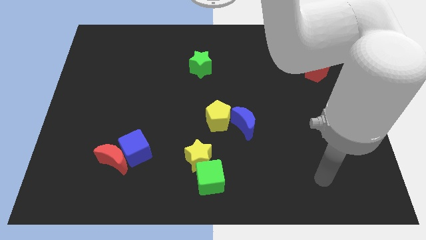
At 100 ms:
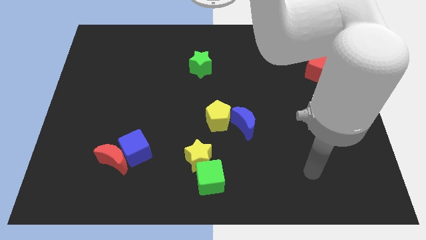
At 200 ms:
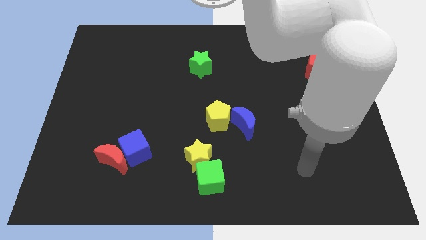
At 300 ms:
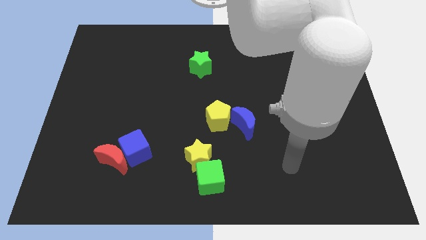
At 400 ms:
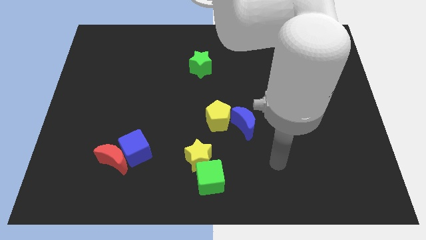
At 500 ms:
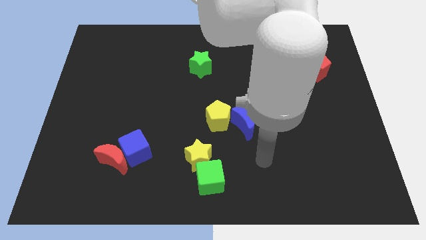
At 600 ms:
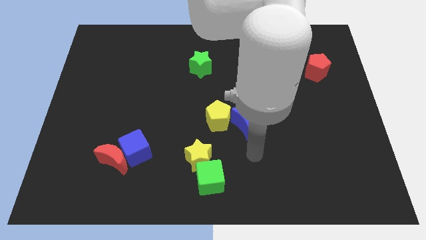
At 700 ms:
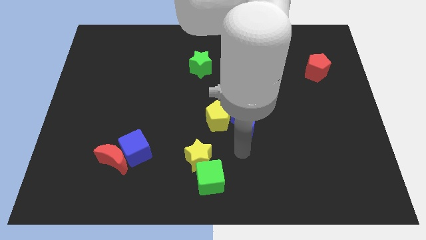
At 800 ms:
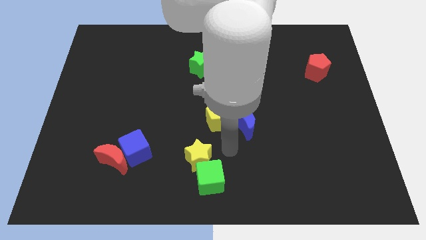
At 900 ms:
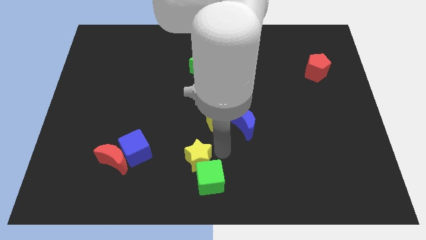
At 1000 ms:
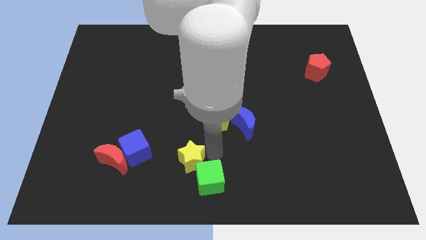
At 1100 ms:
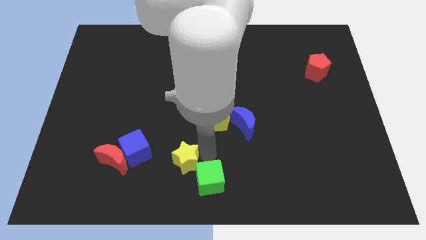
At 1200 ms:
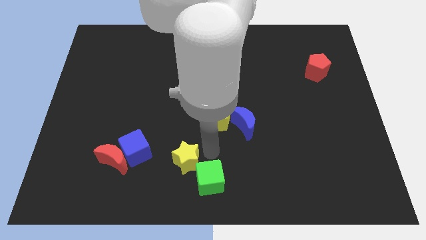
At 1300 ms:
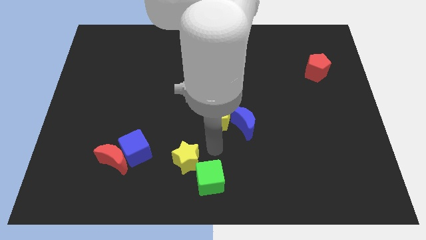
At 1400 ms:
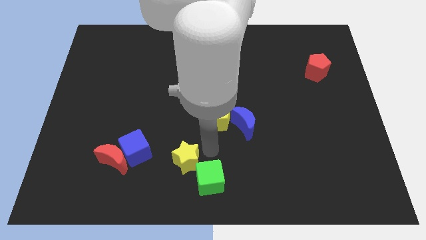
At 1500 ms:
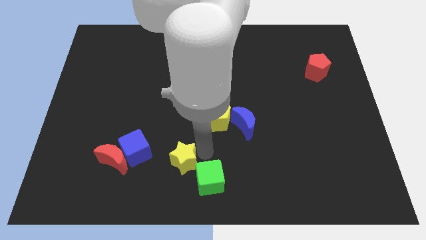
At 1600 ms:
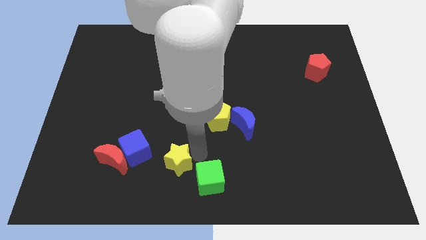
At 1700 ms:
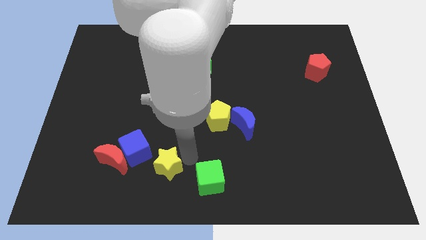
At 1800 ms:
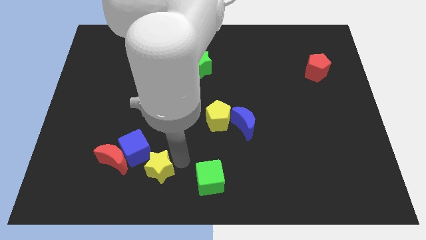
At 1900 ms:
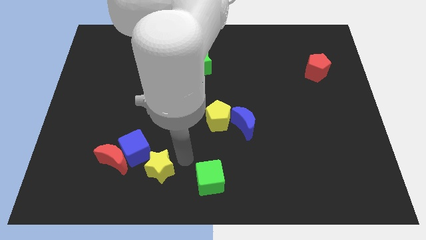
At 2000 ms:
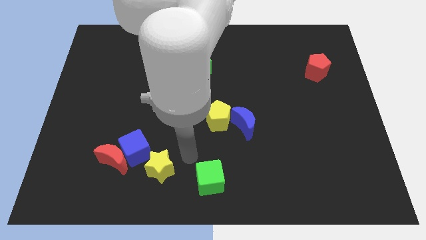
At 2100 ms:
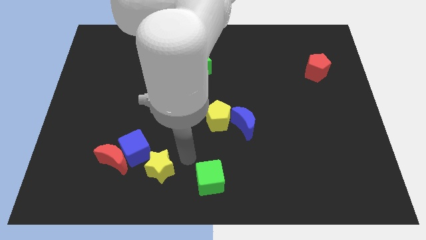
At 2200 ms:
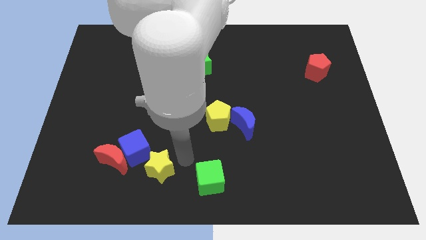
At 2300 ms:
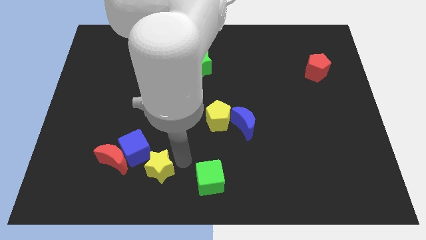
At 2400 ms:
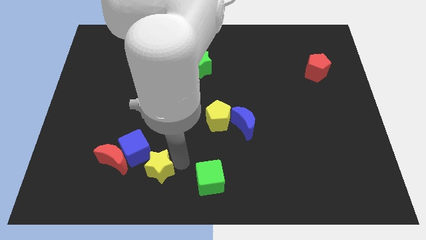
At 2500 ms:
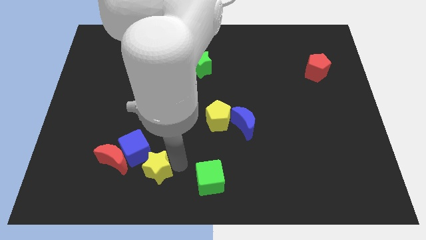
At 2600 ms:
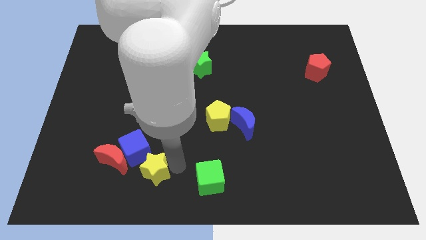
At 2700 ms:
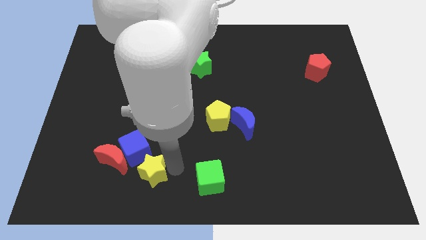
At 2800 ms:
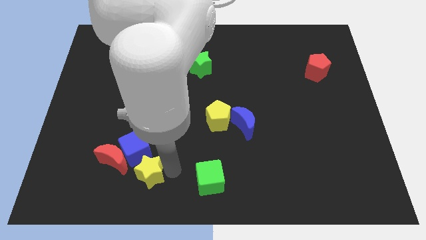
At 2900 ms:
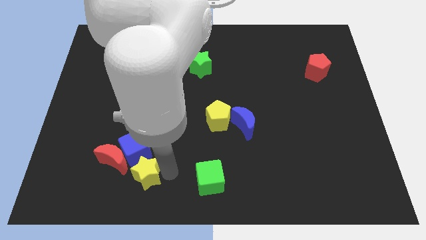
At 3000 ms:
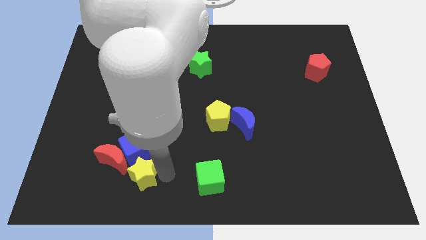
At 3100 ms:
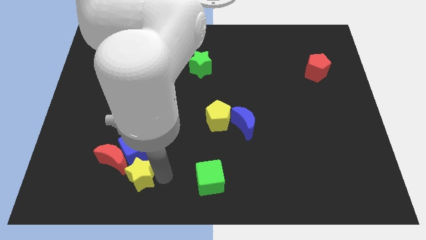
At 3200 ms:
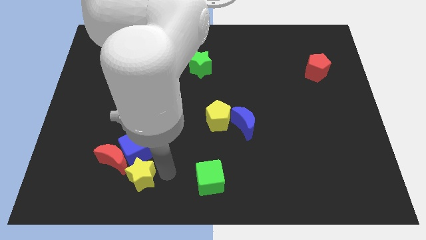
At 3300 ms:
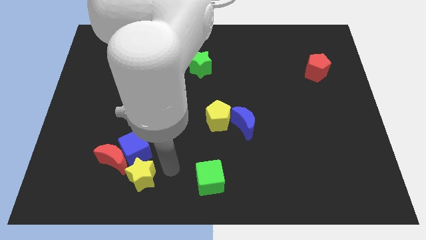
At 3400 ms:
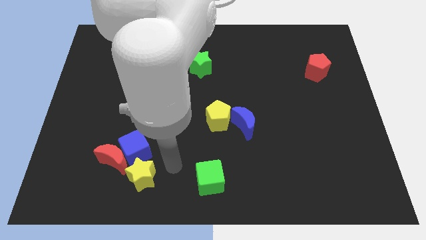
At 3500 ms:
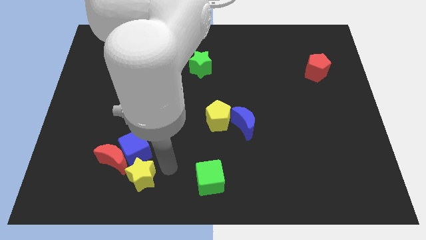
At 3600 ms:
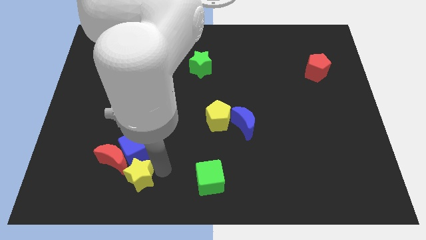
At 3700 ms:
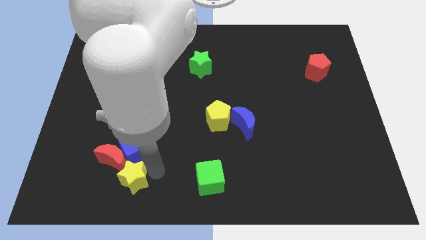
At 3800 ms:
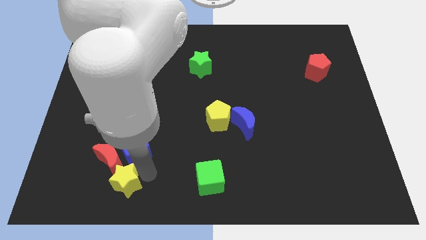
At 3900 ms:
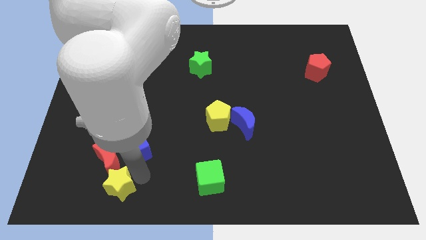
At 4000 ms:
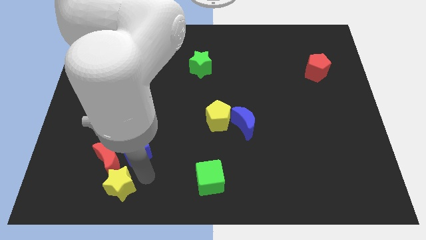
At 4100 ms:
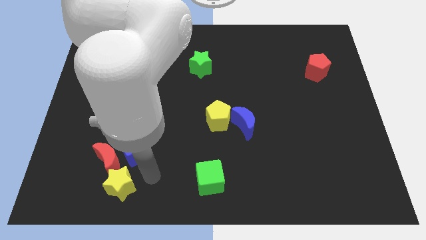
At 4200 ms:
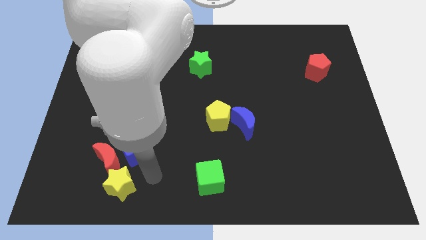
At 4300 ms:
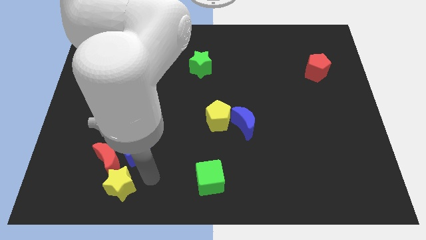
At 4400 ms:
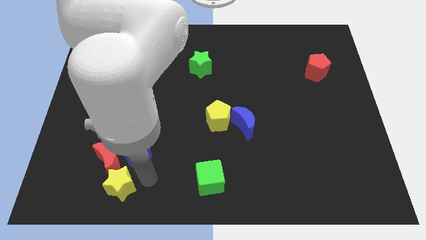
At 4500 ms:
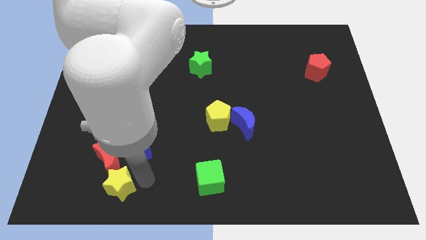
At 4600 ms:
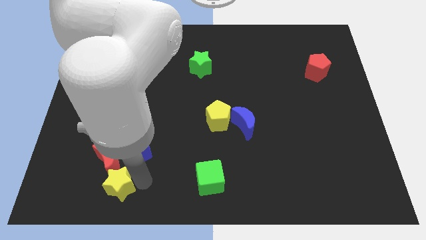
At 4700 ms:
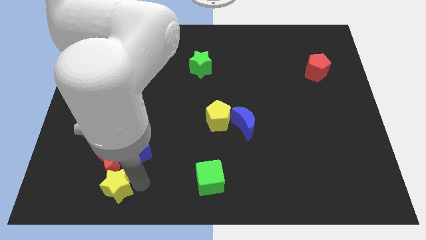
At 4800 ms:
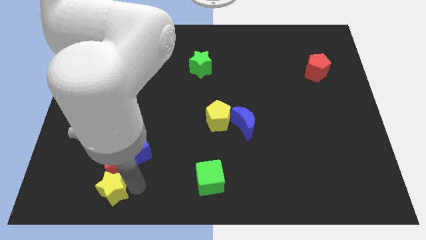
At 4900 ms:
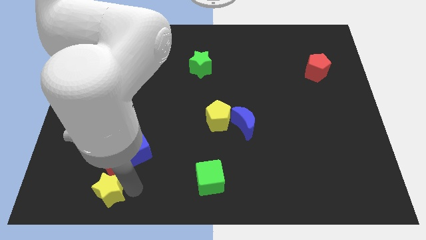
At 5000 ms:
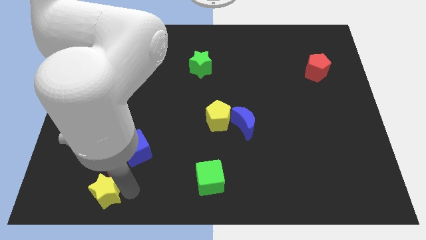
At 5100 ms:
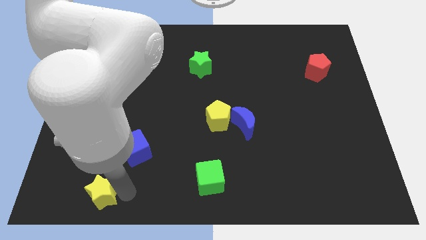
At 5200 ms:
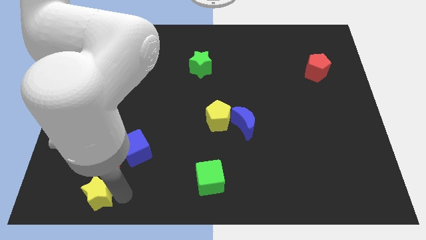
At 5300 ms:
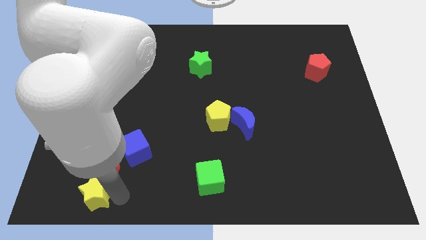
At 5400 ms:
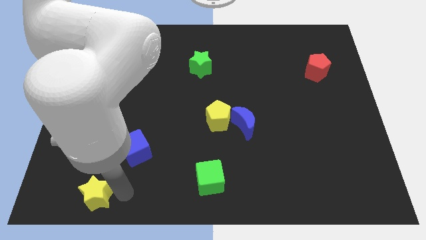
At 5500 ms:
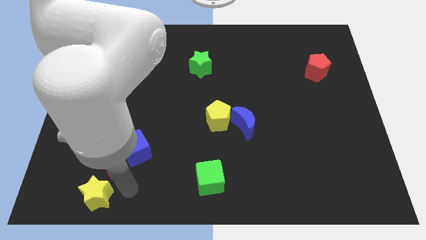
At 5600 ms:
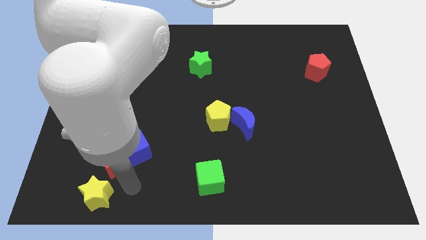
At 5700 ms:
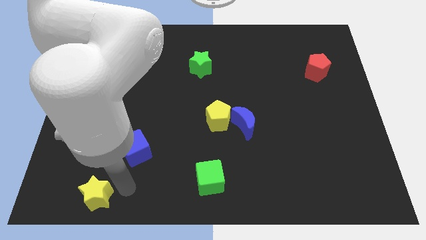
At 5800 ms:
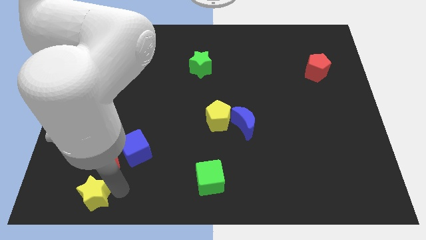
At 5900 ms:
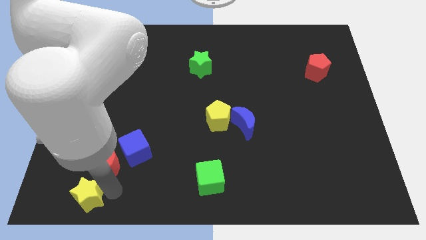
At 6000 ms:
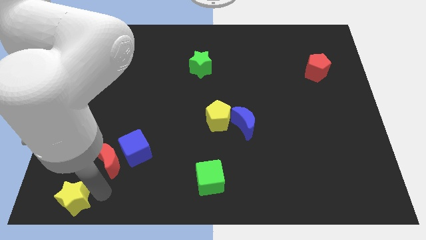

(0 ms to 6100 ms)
push the yellow star to the bottom left of the board
